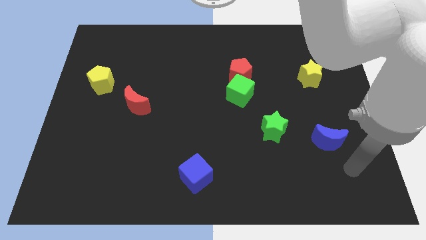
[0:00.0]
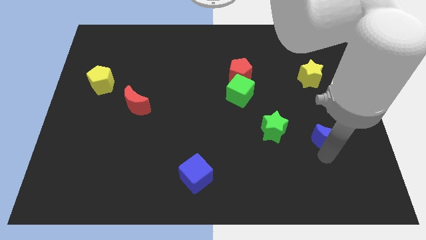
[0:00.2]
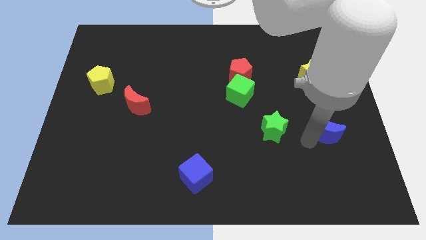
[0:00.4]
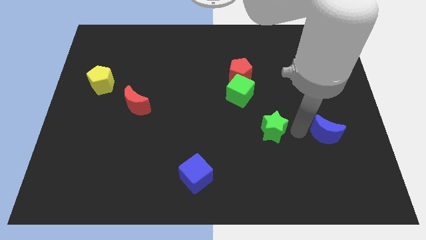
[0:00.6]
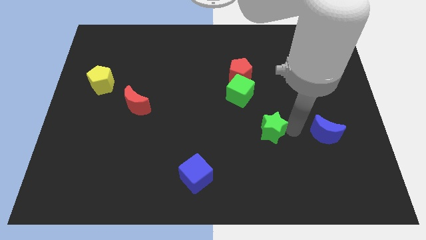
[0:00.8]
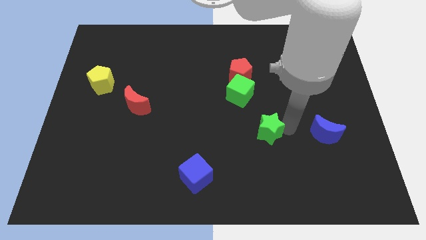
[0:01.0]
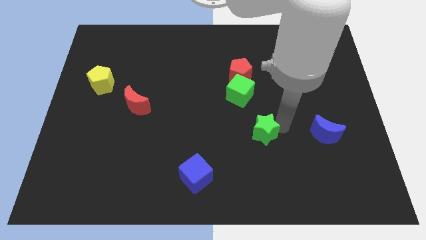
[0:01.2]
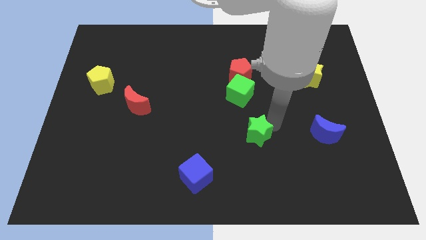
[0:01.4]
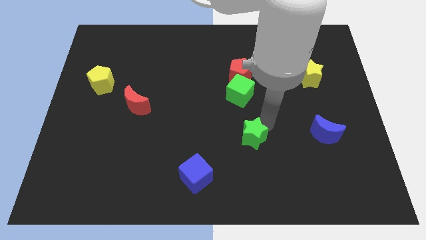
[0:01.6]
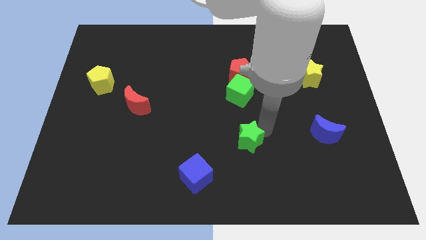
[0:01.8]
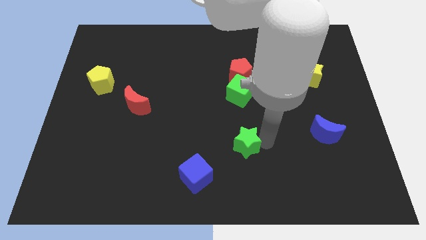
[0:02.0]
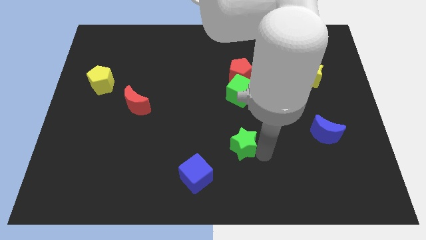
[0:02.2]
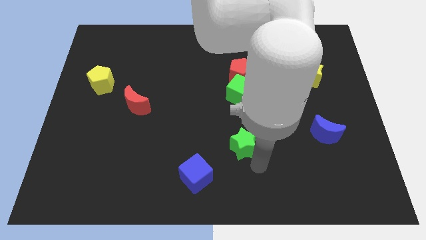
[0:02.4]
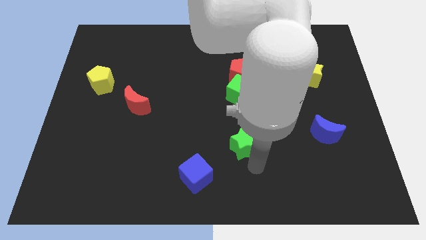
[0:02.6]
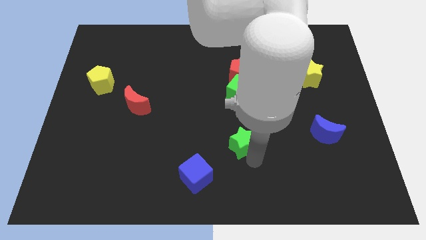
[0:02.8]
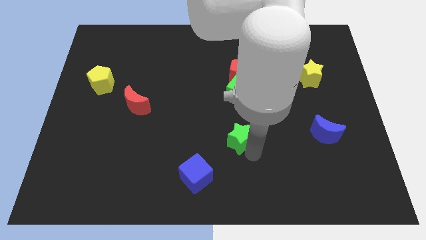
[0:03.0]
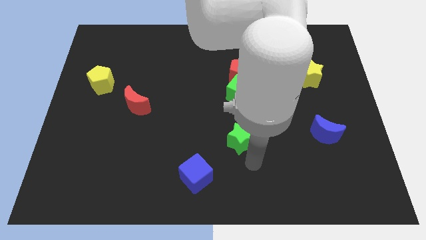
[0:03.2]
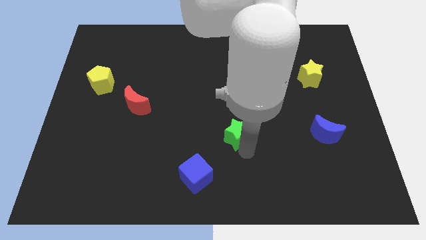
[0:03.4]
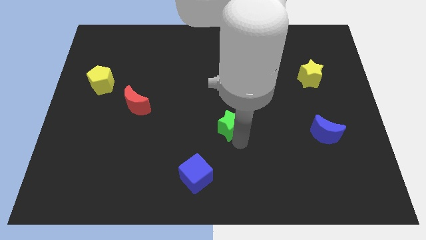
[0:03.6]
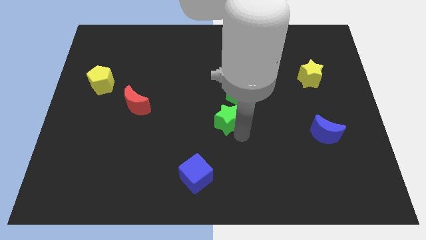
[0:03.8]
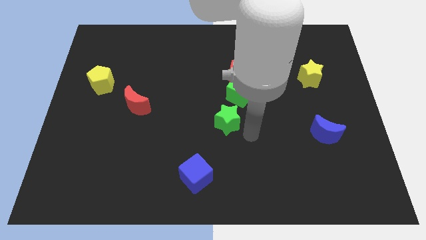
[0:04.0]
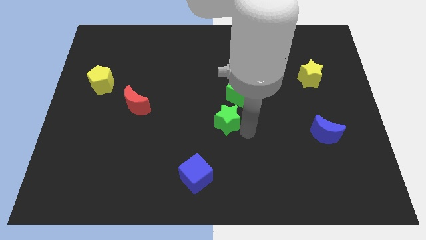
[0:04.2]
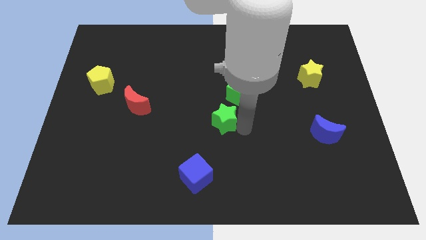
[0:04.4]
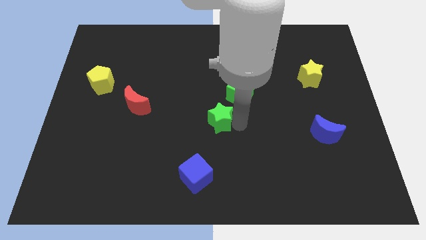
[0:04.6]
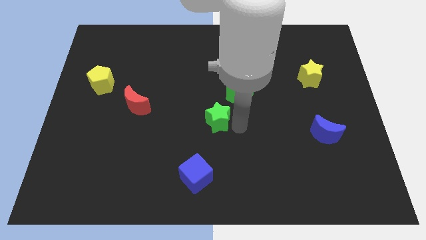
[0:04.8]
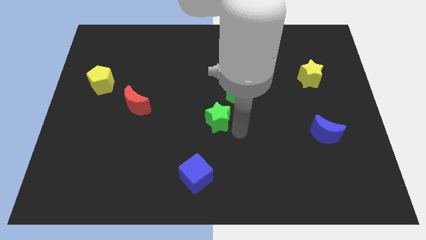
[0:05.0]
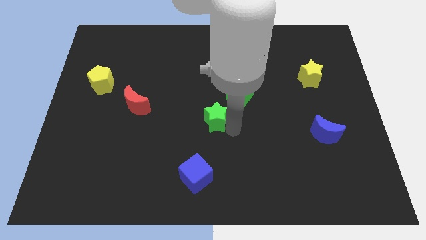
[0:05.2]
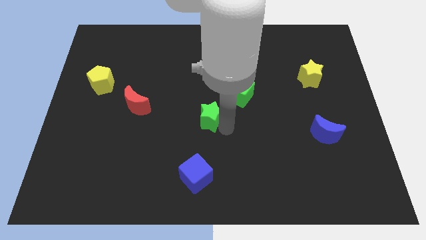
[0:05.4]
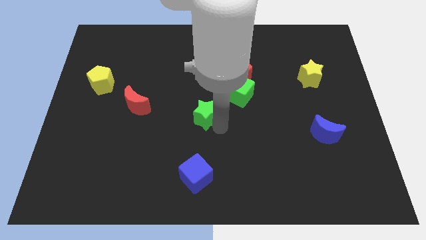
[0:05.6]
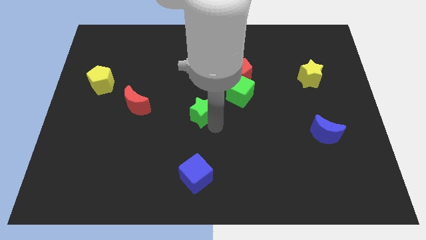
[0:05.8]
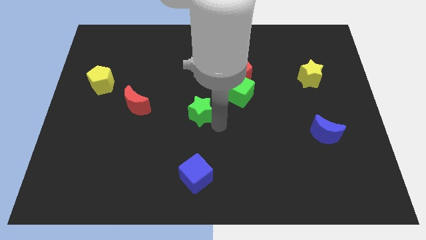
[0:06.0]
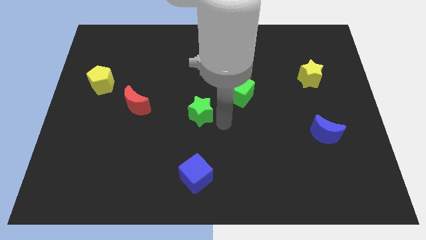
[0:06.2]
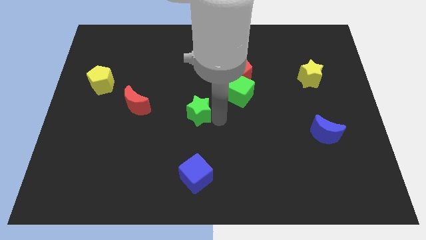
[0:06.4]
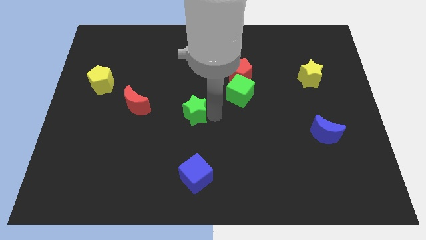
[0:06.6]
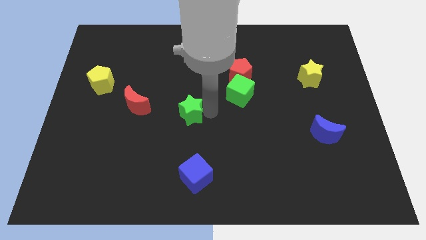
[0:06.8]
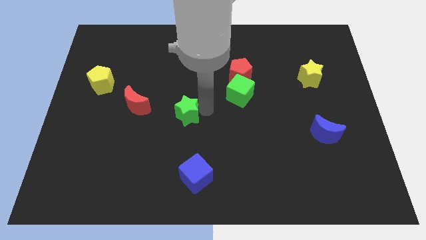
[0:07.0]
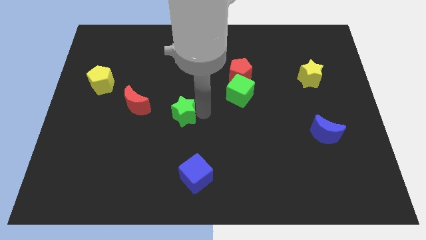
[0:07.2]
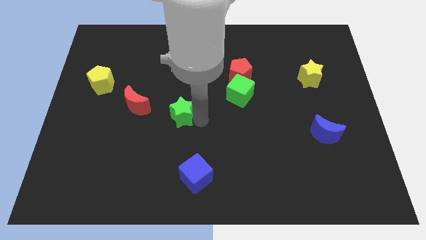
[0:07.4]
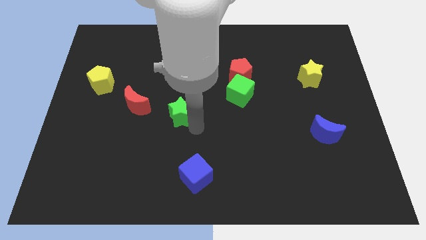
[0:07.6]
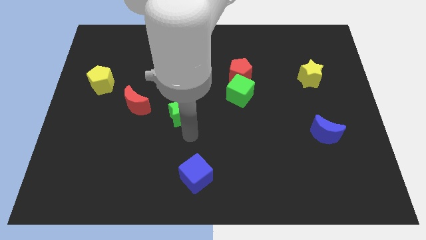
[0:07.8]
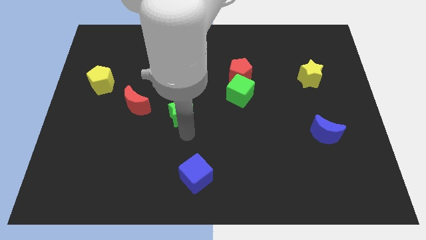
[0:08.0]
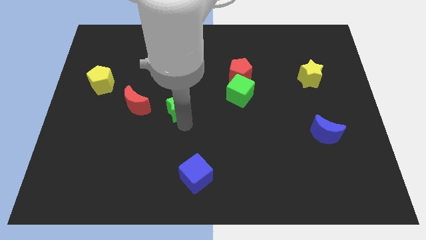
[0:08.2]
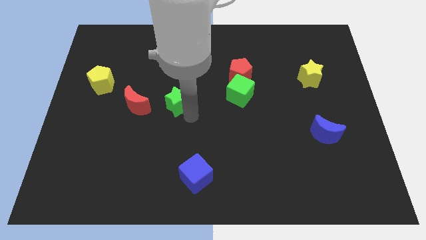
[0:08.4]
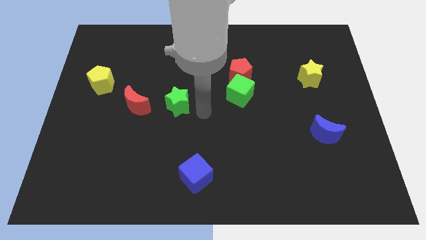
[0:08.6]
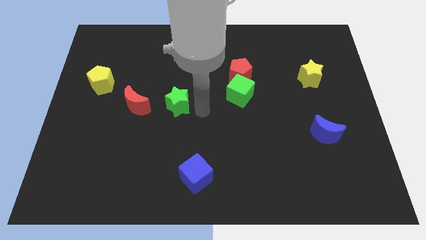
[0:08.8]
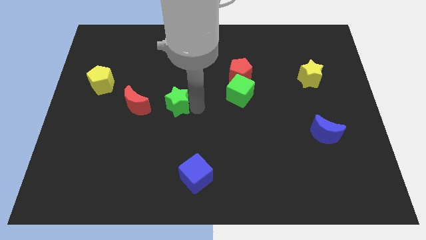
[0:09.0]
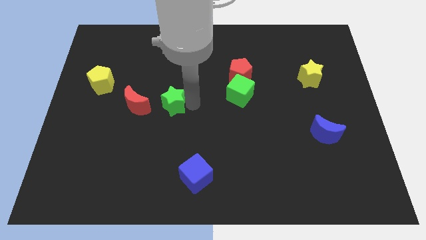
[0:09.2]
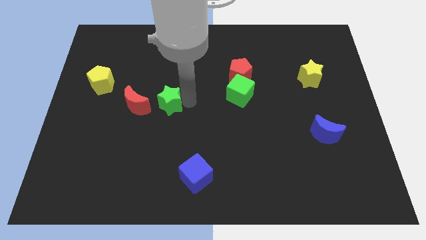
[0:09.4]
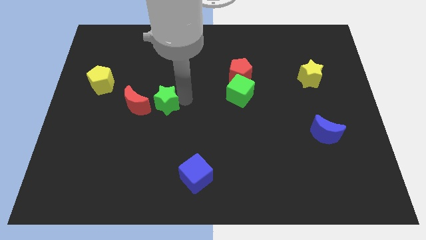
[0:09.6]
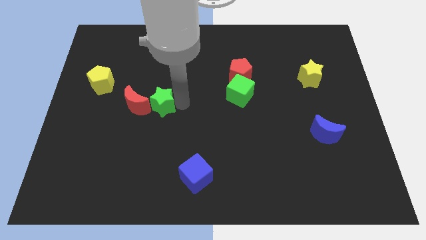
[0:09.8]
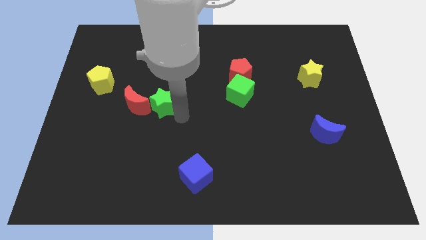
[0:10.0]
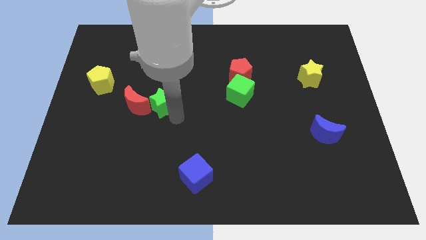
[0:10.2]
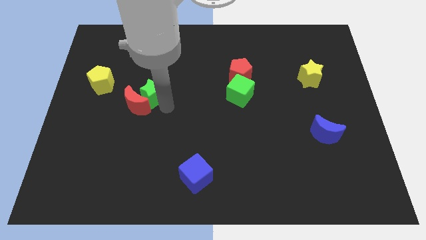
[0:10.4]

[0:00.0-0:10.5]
push the green star just right of the yellow pentagon

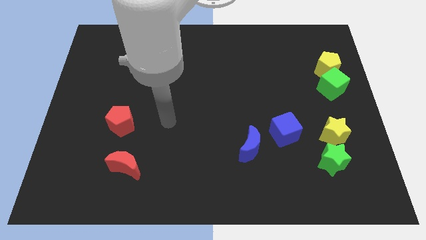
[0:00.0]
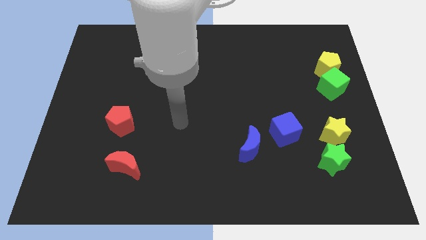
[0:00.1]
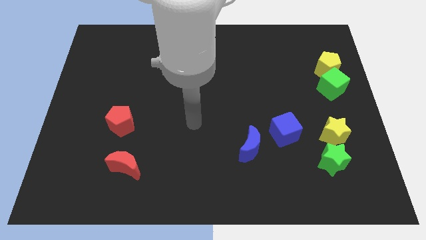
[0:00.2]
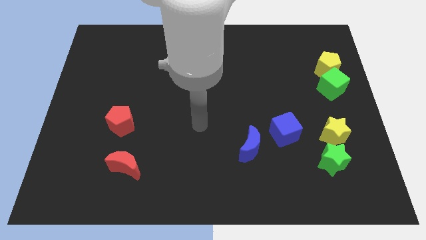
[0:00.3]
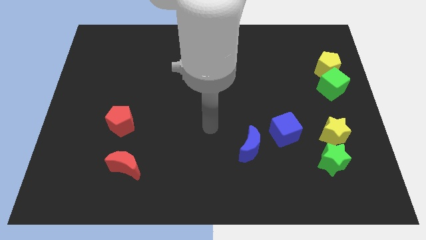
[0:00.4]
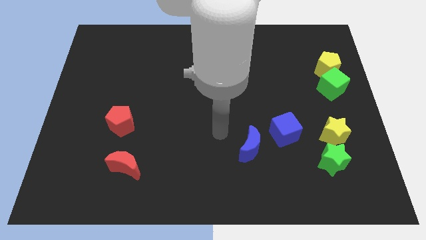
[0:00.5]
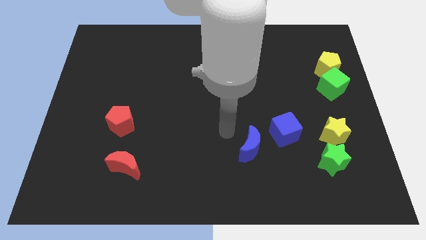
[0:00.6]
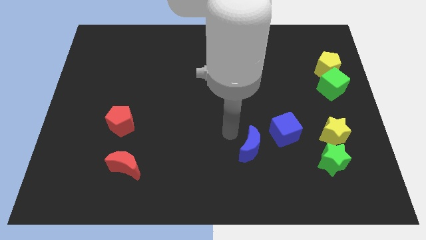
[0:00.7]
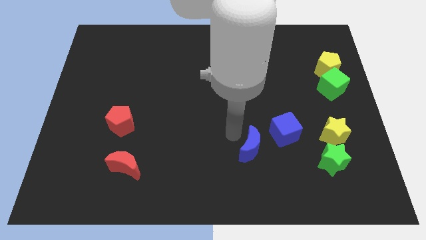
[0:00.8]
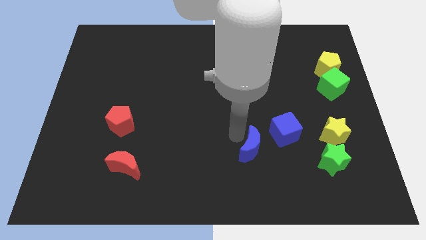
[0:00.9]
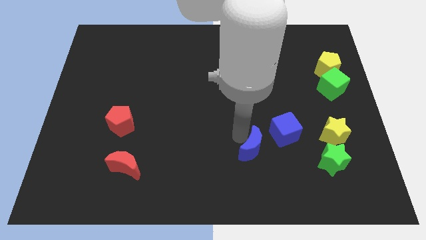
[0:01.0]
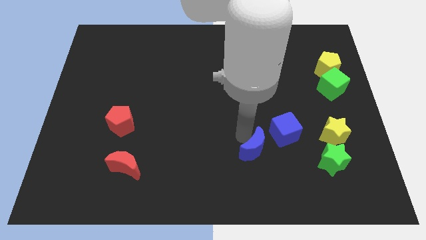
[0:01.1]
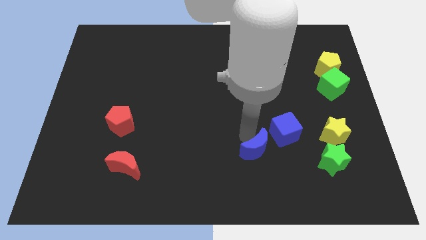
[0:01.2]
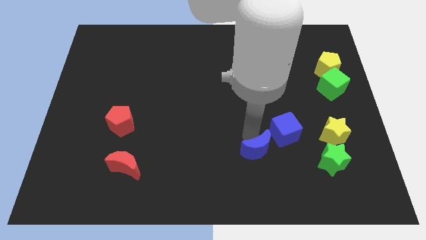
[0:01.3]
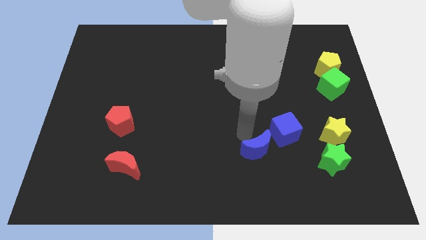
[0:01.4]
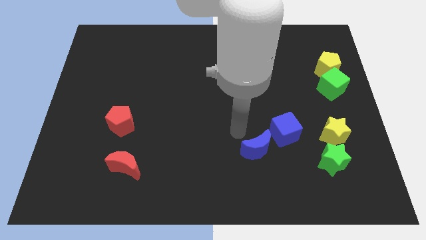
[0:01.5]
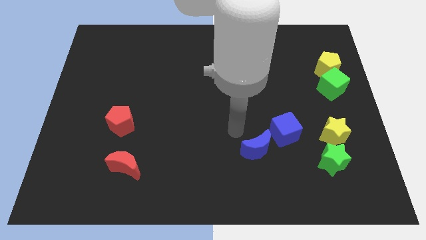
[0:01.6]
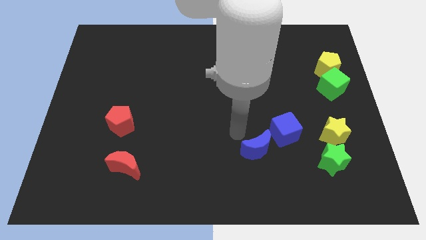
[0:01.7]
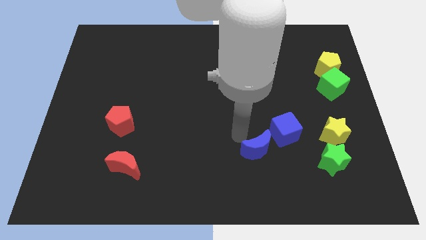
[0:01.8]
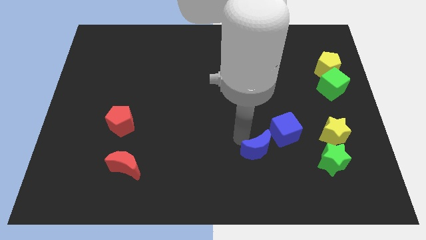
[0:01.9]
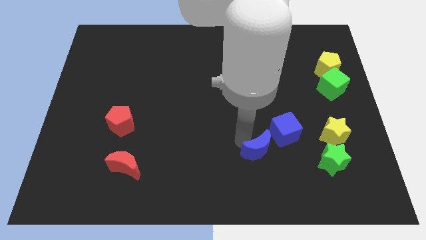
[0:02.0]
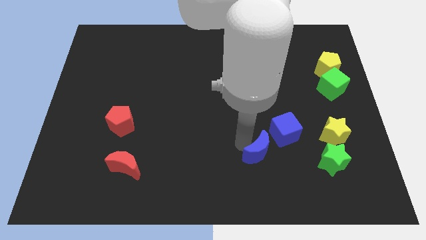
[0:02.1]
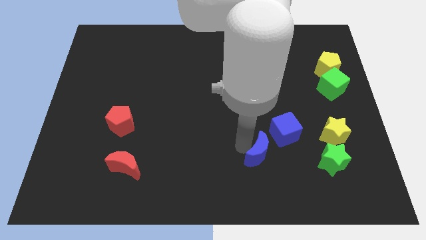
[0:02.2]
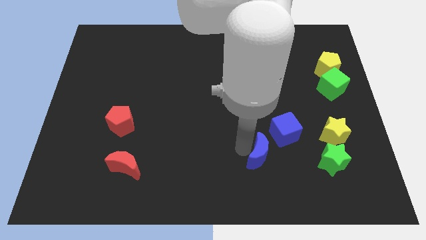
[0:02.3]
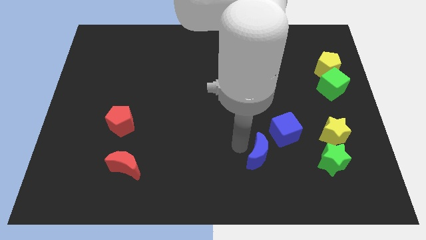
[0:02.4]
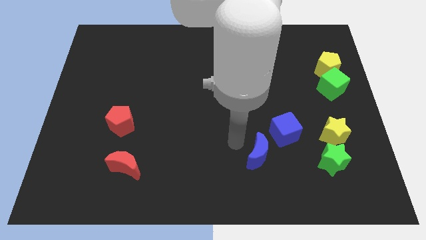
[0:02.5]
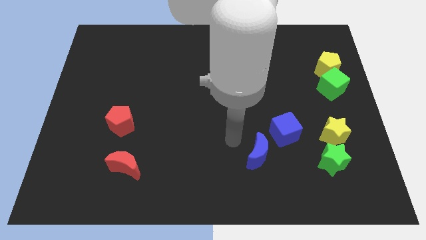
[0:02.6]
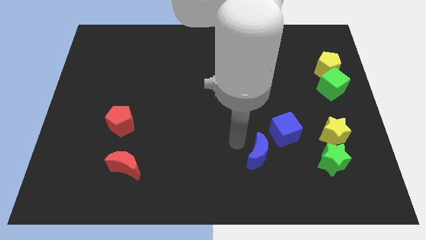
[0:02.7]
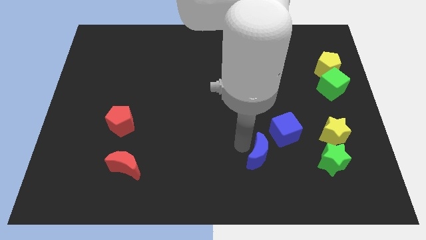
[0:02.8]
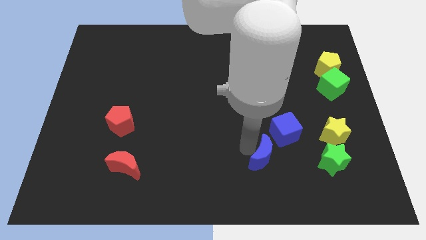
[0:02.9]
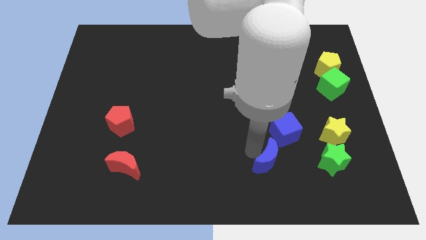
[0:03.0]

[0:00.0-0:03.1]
push the blue moon to the bottom of the blue cube
